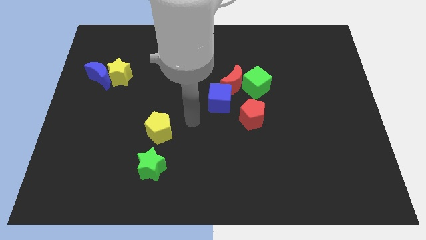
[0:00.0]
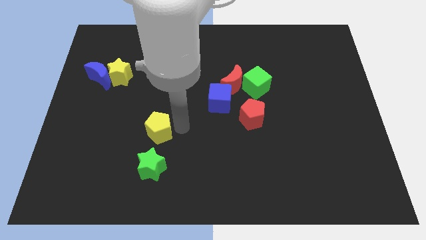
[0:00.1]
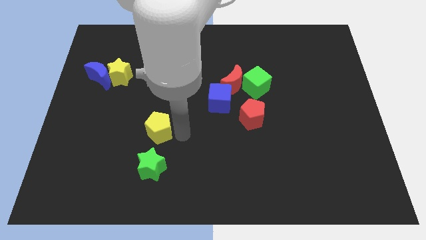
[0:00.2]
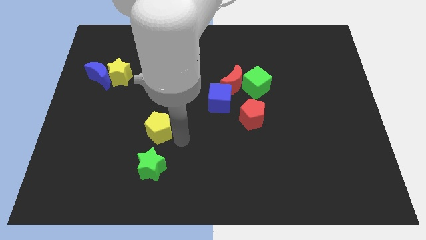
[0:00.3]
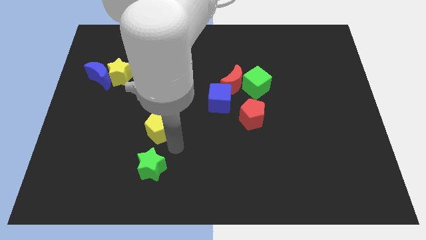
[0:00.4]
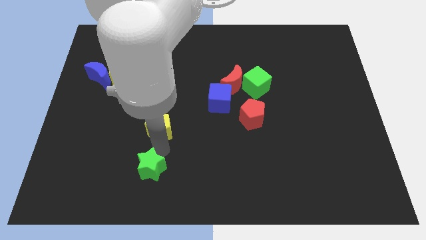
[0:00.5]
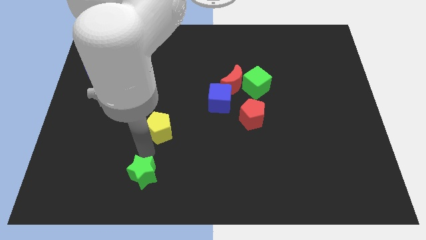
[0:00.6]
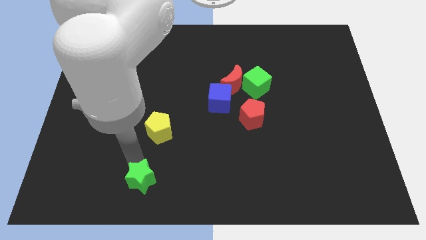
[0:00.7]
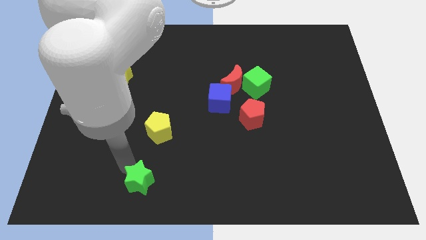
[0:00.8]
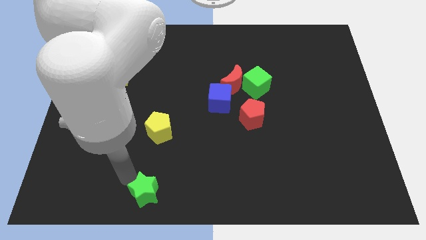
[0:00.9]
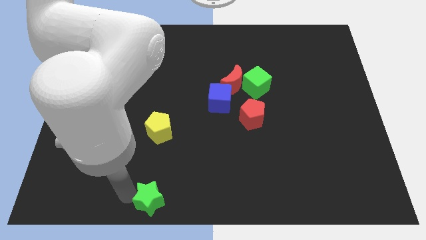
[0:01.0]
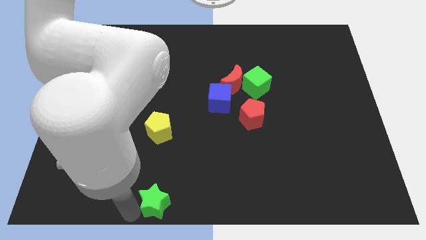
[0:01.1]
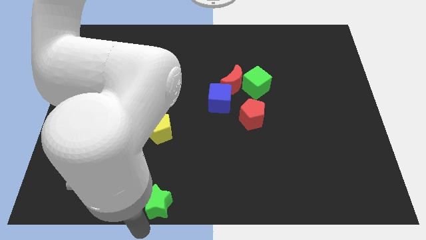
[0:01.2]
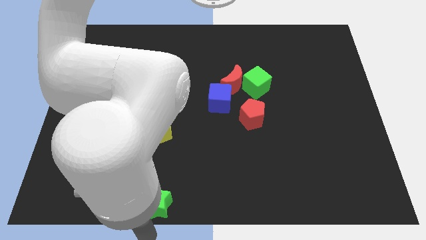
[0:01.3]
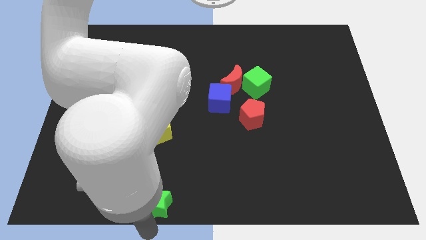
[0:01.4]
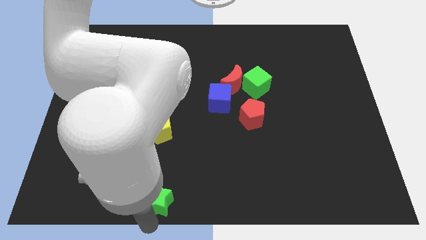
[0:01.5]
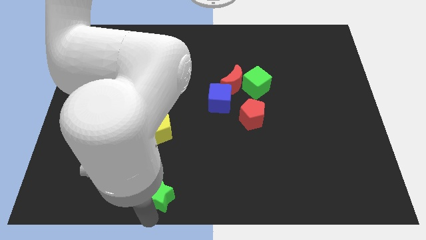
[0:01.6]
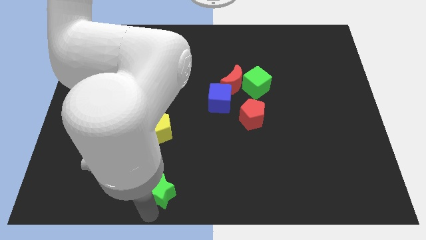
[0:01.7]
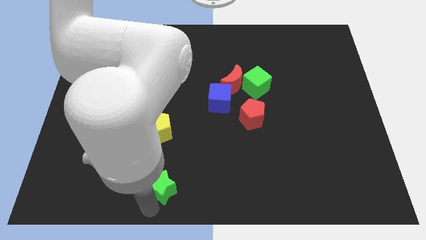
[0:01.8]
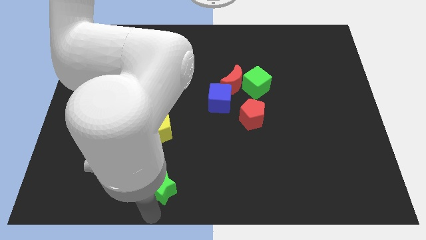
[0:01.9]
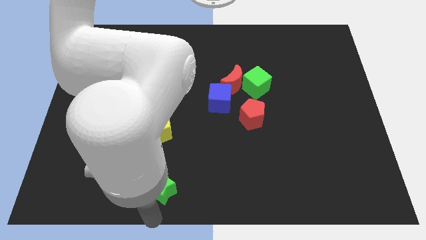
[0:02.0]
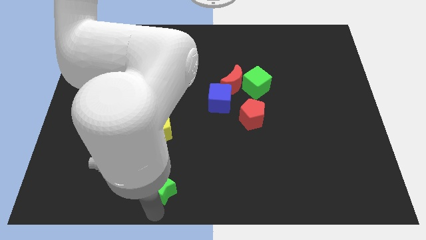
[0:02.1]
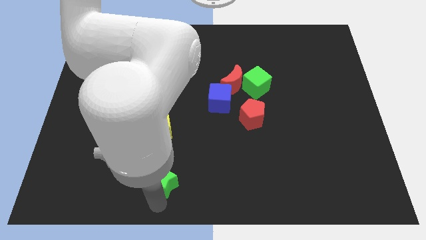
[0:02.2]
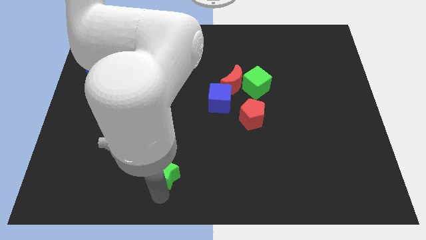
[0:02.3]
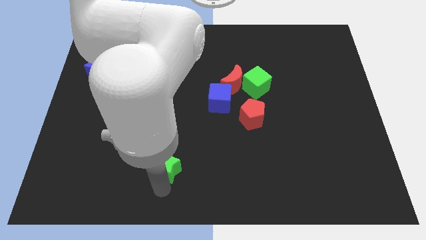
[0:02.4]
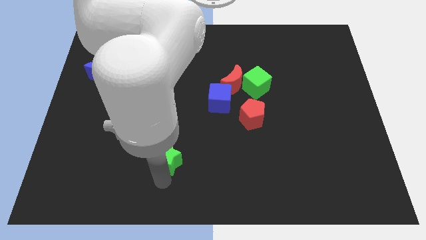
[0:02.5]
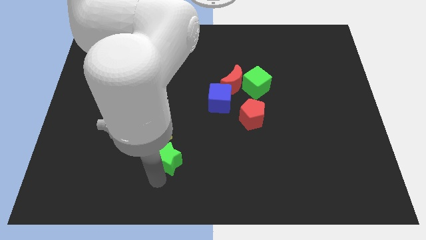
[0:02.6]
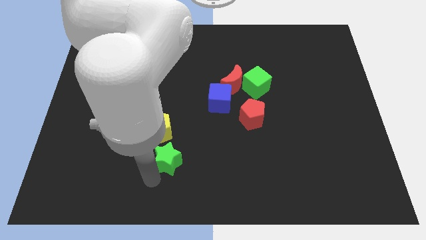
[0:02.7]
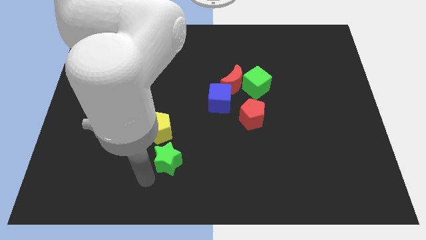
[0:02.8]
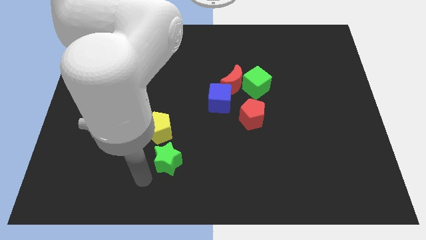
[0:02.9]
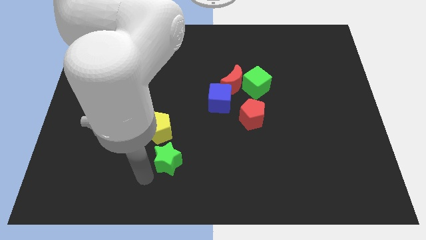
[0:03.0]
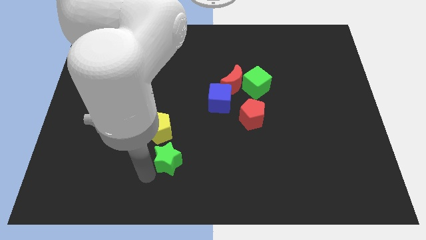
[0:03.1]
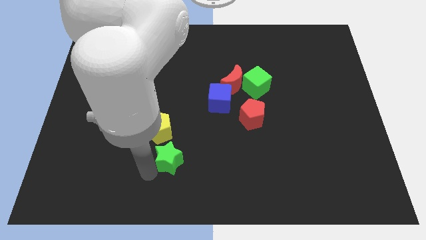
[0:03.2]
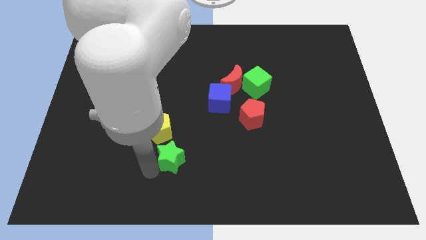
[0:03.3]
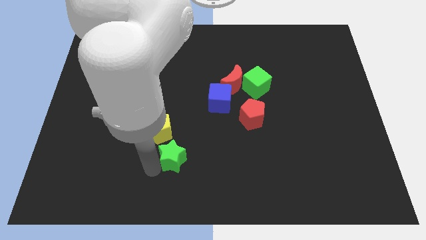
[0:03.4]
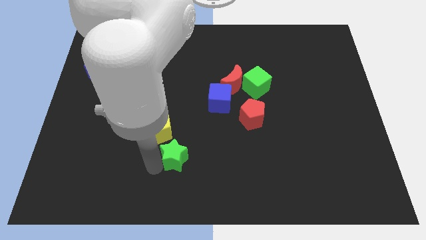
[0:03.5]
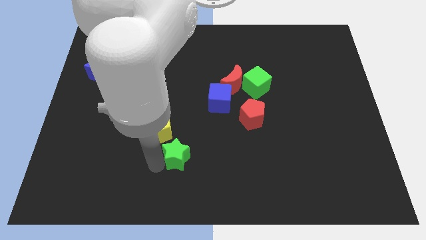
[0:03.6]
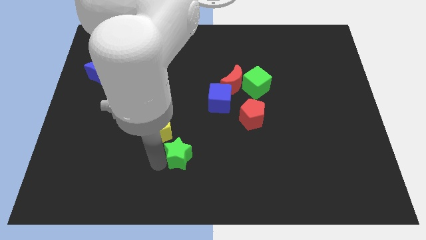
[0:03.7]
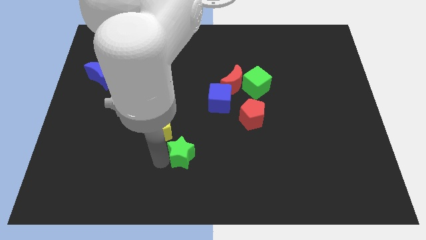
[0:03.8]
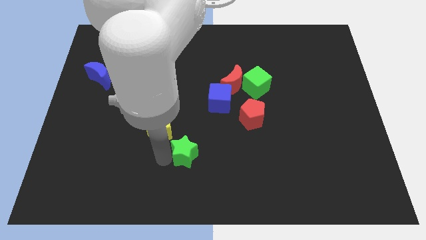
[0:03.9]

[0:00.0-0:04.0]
slide the green star slightly up and right

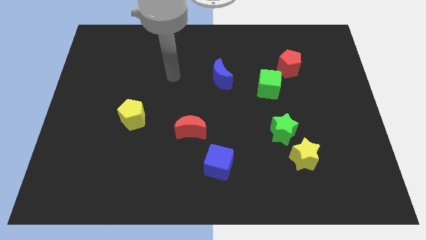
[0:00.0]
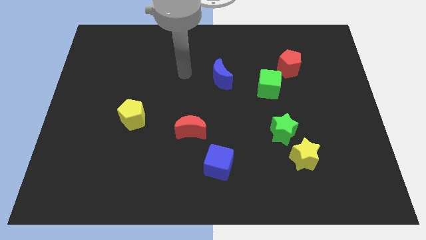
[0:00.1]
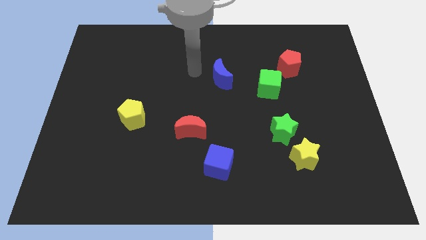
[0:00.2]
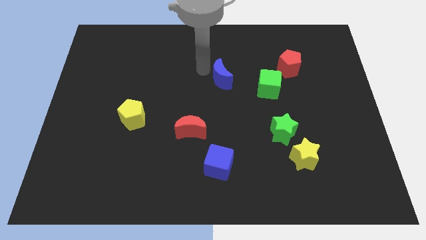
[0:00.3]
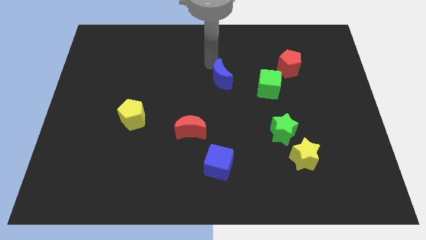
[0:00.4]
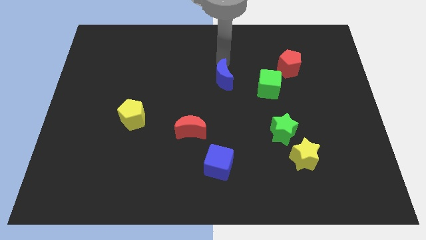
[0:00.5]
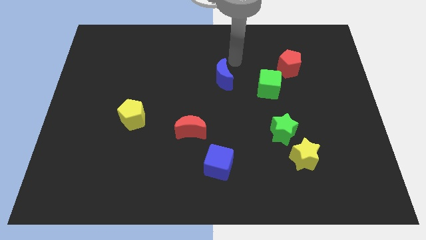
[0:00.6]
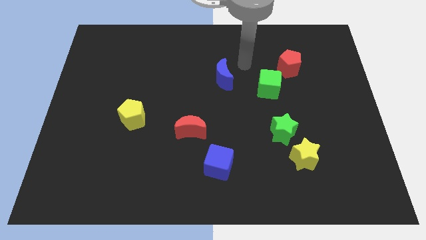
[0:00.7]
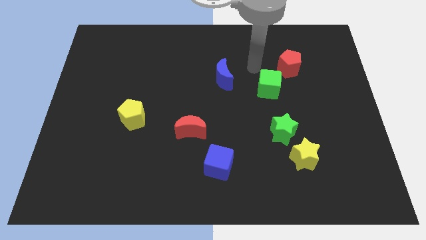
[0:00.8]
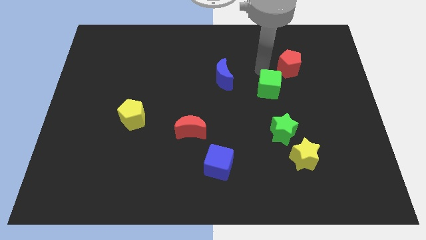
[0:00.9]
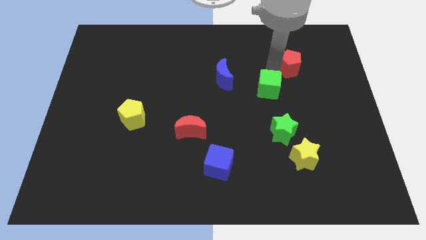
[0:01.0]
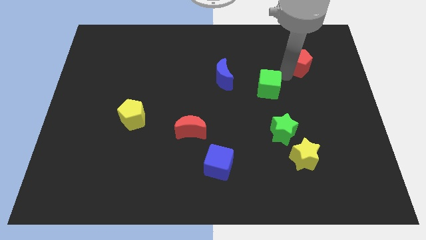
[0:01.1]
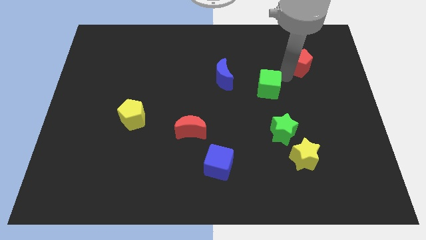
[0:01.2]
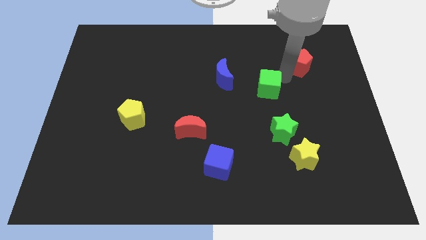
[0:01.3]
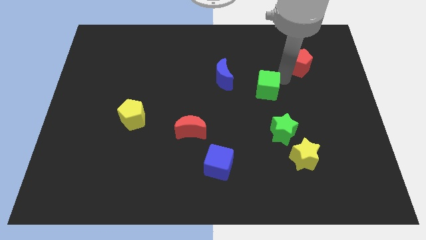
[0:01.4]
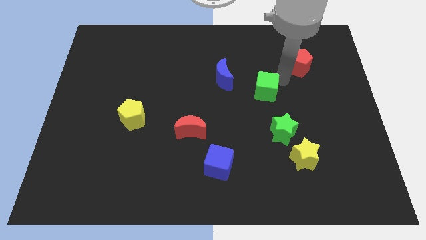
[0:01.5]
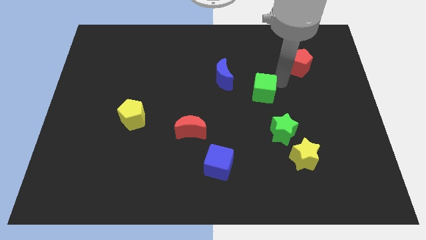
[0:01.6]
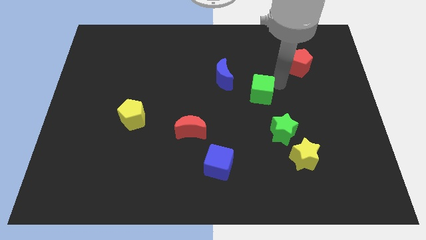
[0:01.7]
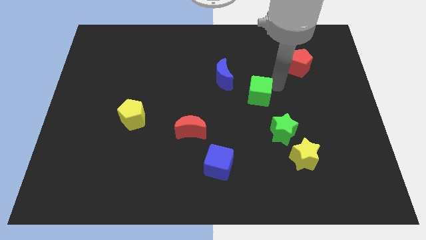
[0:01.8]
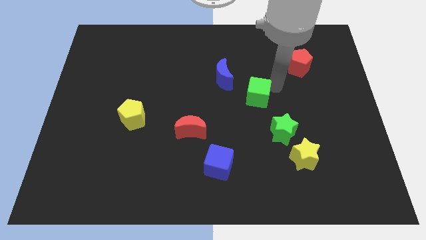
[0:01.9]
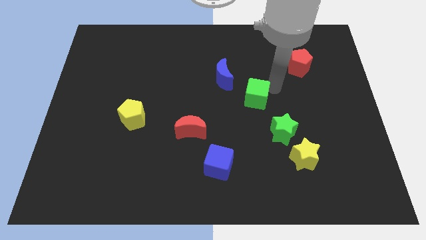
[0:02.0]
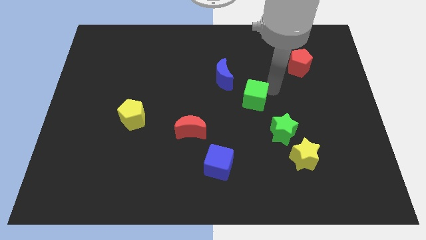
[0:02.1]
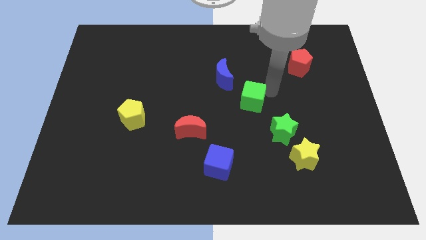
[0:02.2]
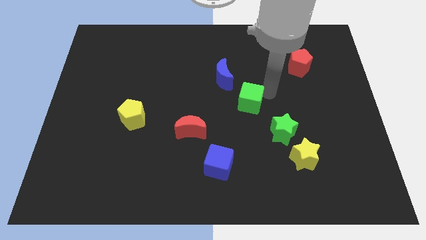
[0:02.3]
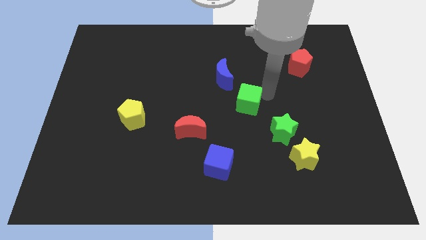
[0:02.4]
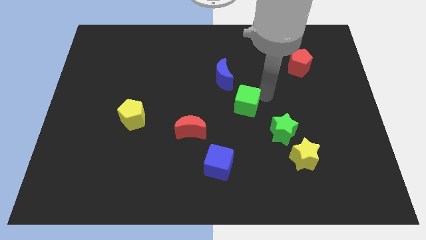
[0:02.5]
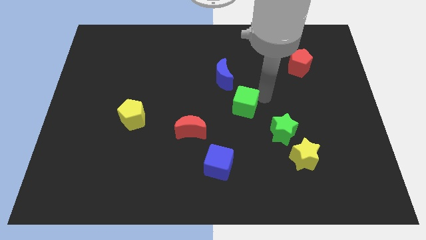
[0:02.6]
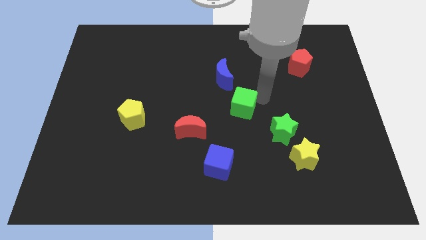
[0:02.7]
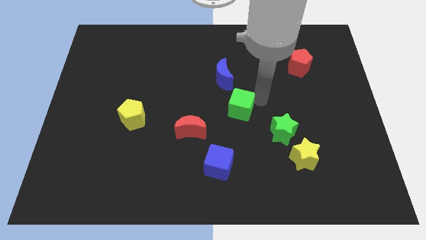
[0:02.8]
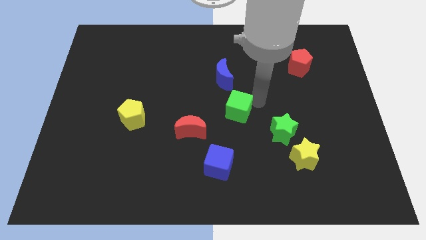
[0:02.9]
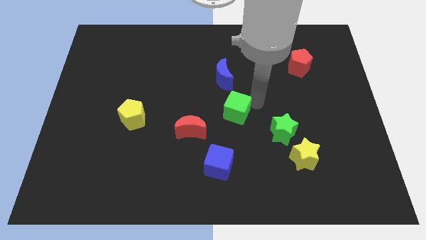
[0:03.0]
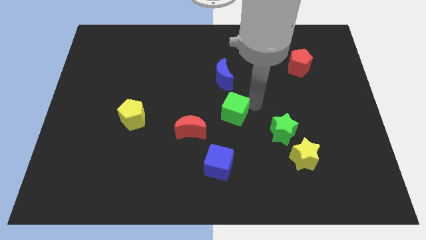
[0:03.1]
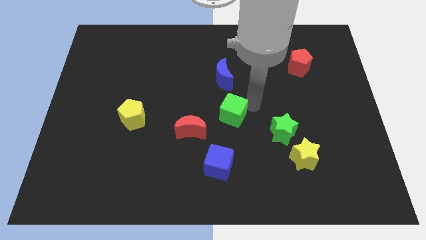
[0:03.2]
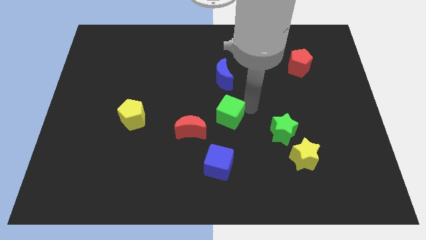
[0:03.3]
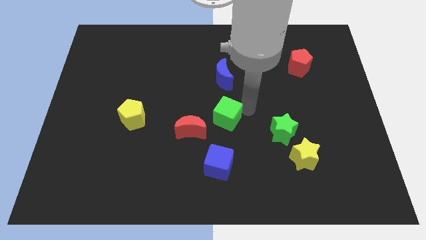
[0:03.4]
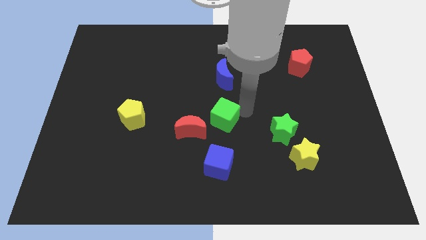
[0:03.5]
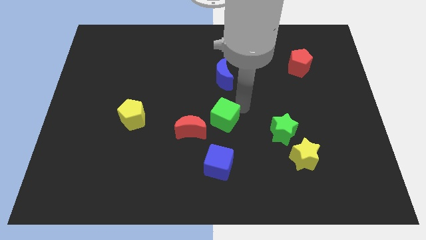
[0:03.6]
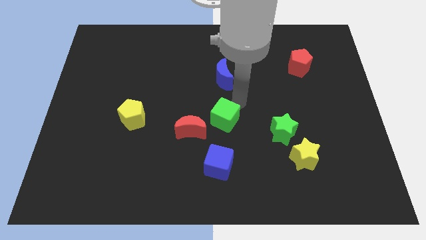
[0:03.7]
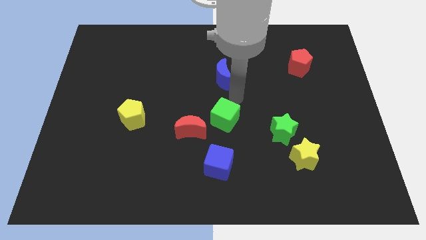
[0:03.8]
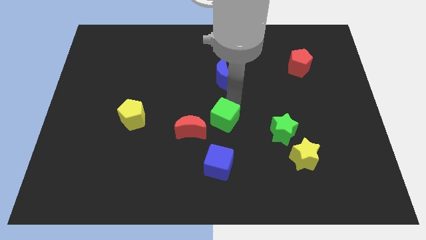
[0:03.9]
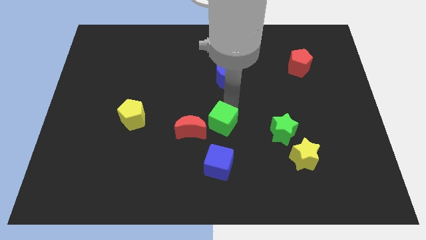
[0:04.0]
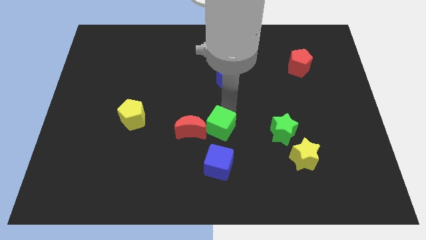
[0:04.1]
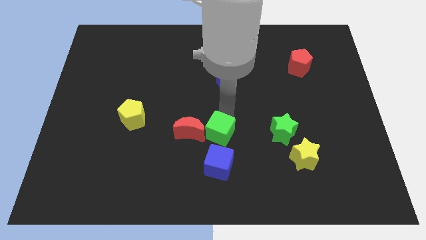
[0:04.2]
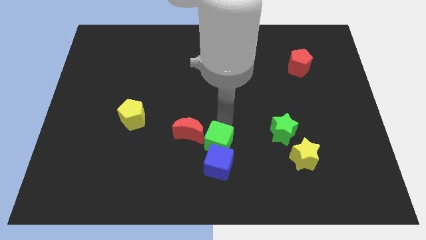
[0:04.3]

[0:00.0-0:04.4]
move the green cube diagonally downwards and to the left
